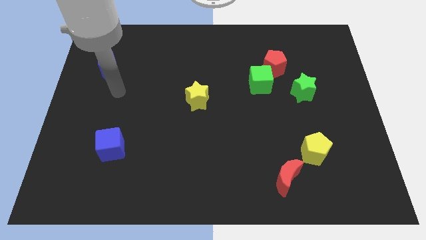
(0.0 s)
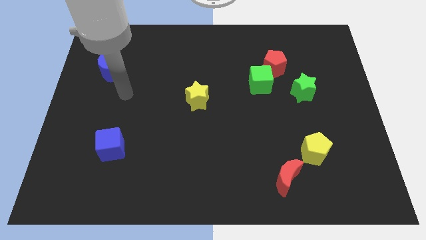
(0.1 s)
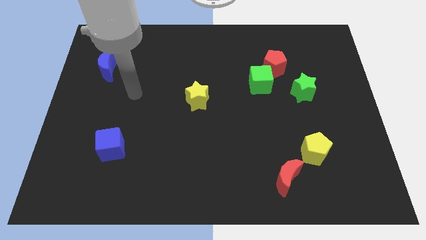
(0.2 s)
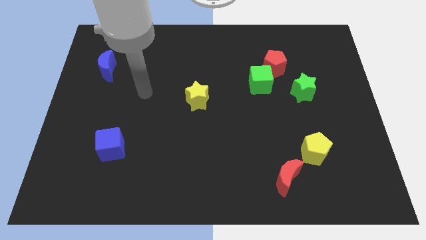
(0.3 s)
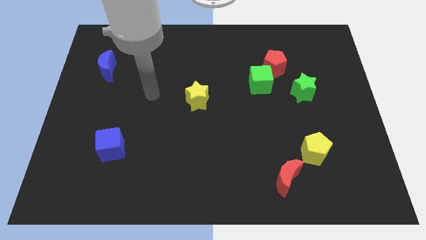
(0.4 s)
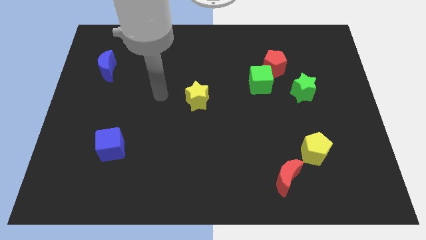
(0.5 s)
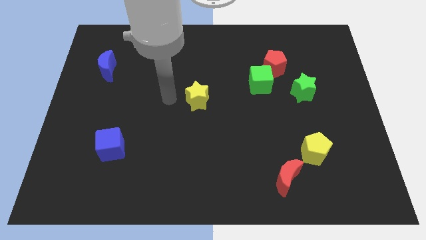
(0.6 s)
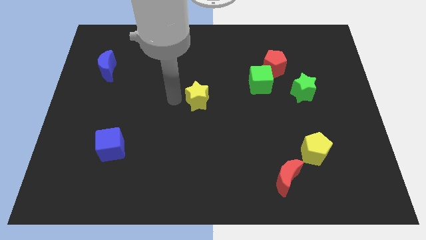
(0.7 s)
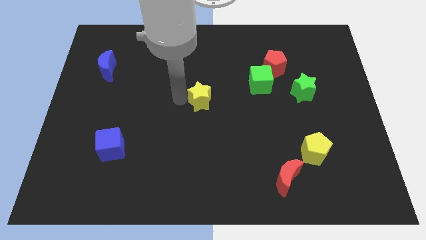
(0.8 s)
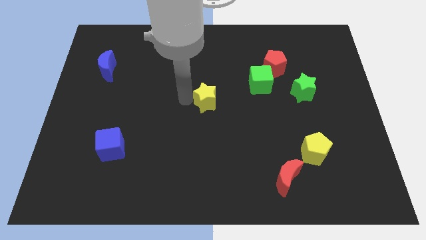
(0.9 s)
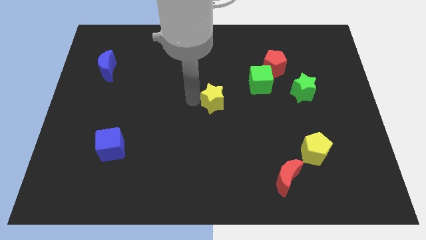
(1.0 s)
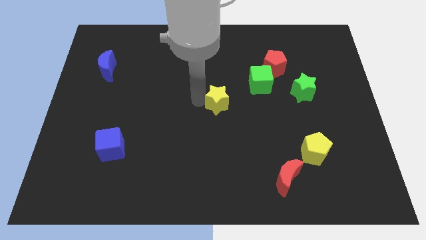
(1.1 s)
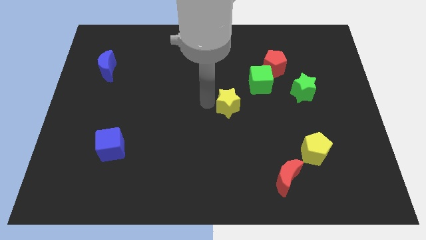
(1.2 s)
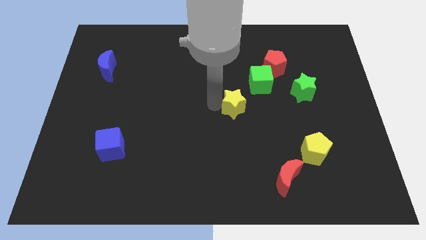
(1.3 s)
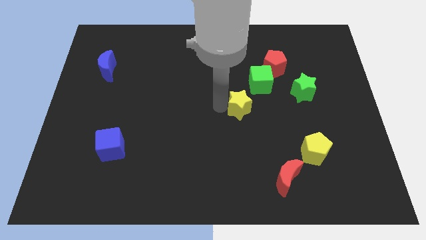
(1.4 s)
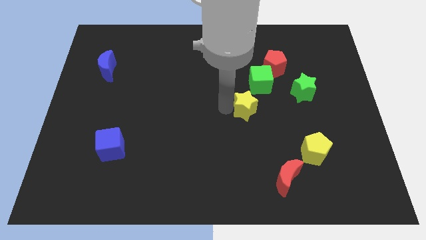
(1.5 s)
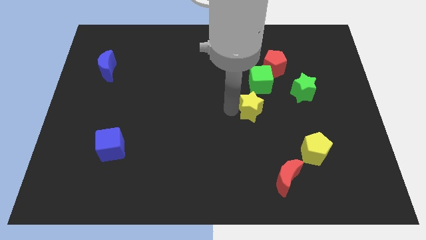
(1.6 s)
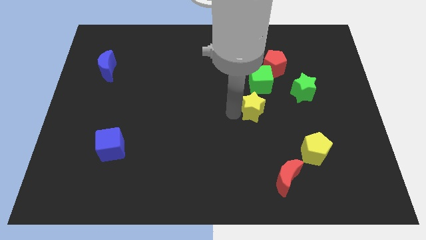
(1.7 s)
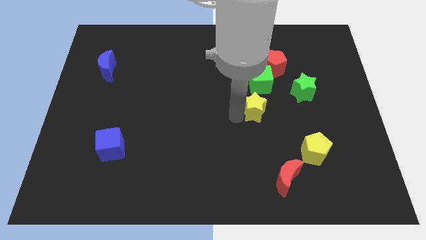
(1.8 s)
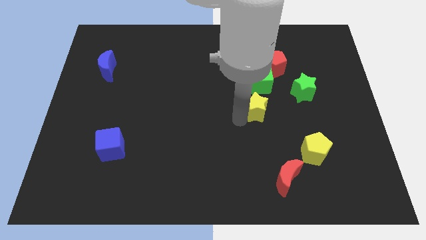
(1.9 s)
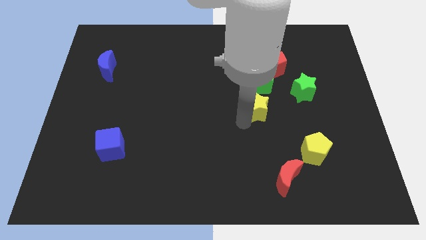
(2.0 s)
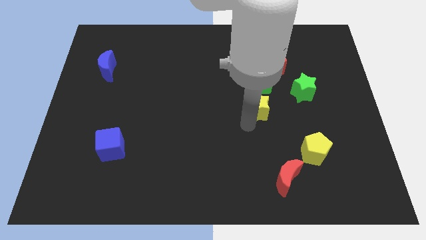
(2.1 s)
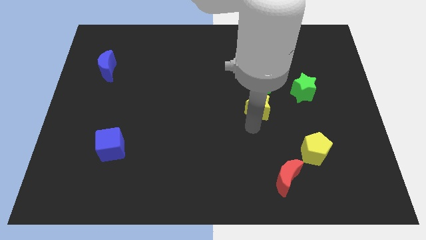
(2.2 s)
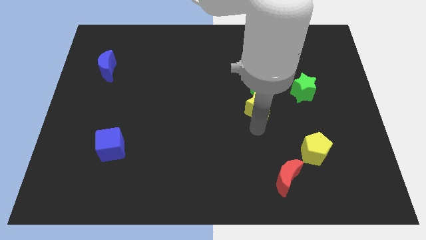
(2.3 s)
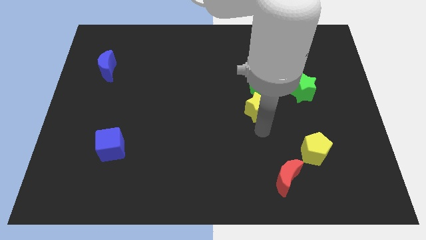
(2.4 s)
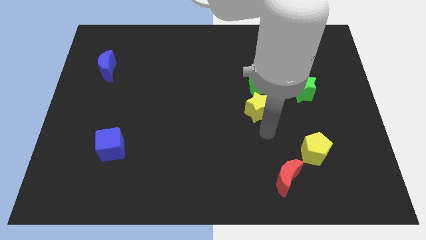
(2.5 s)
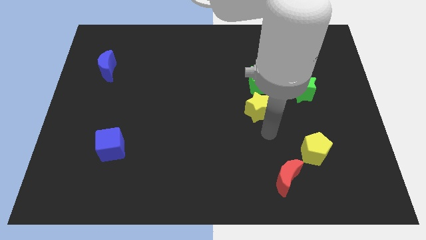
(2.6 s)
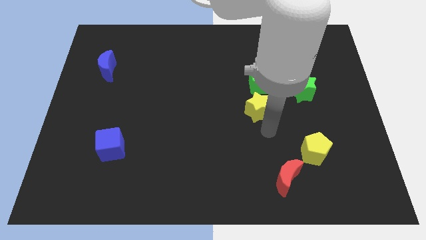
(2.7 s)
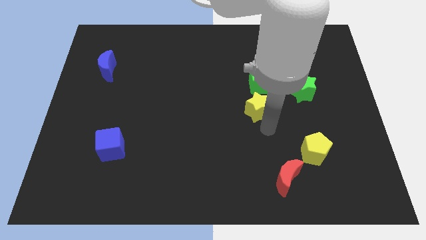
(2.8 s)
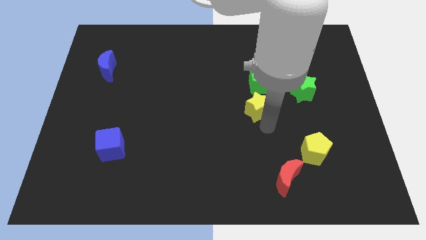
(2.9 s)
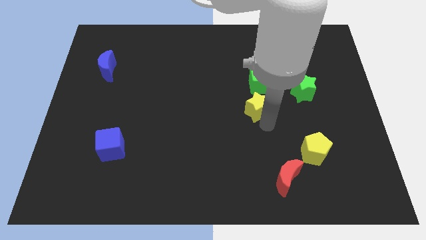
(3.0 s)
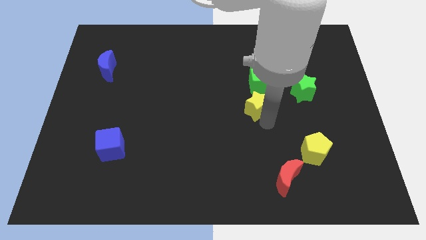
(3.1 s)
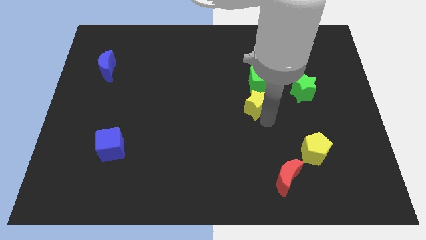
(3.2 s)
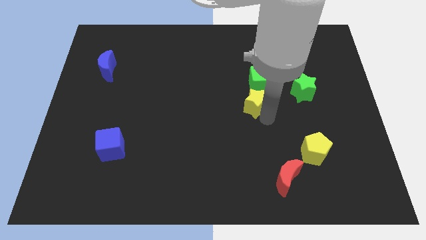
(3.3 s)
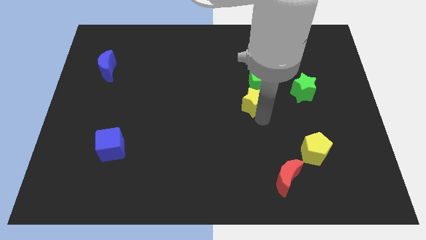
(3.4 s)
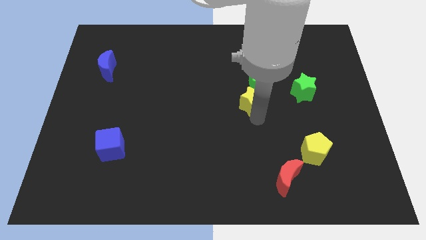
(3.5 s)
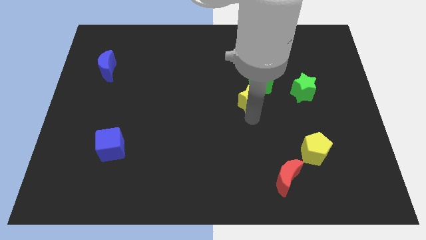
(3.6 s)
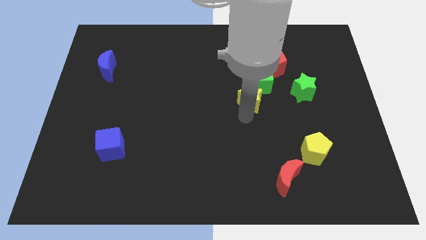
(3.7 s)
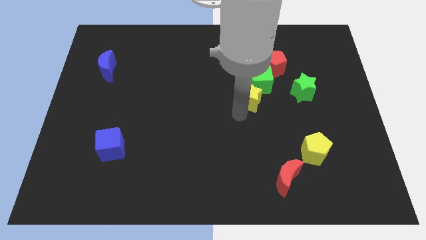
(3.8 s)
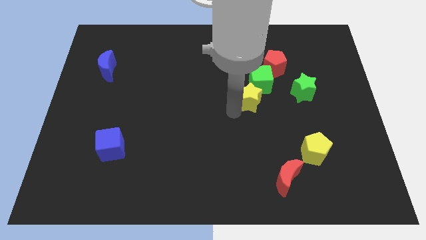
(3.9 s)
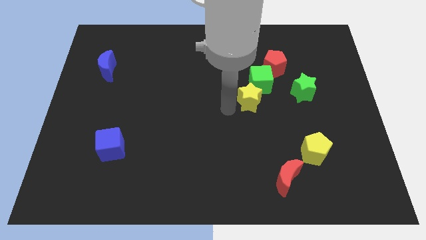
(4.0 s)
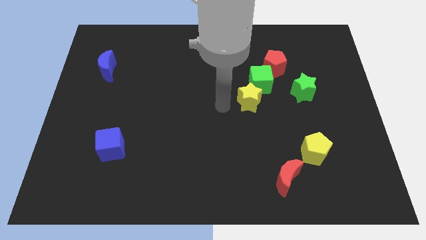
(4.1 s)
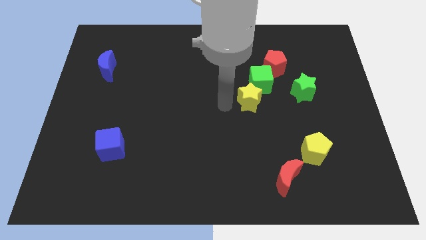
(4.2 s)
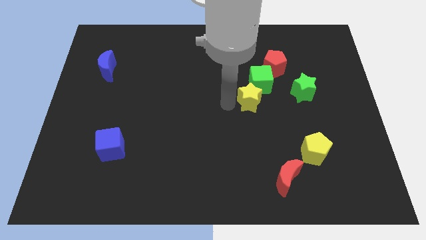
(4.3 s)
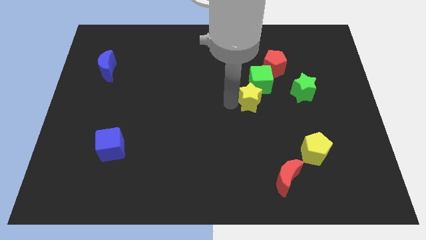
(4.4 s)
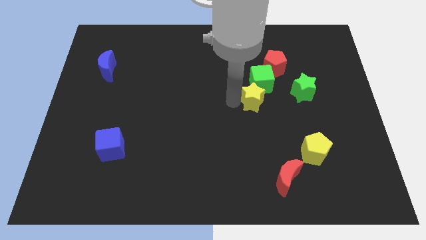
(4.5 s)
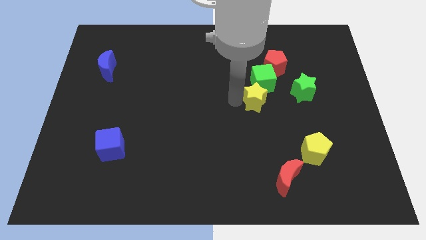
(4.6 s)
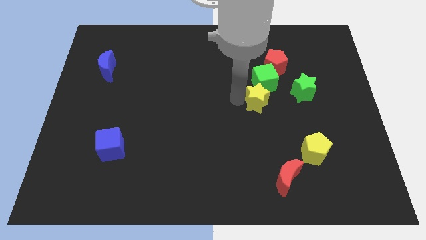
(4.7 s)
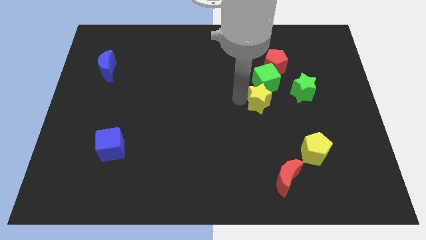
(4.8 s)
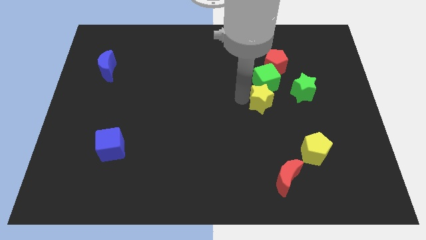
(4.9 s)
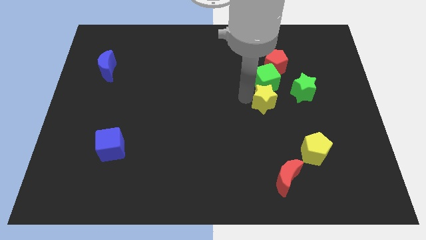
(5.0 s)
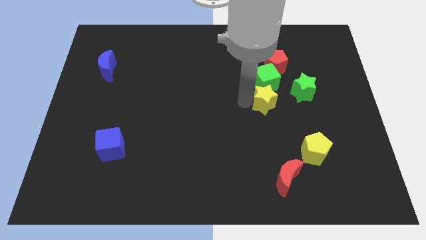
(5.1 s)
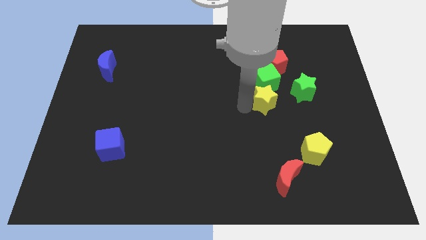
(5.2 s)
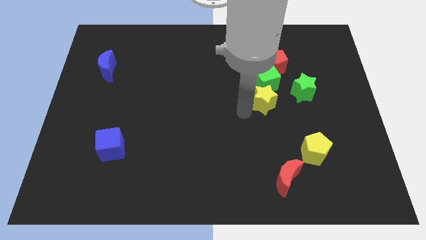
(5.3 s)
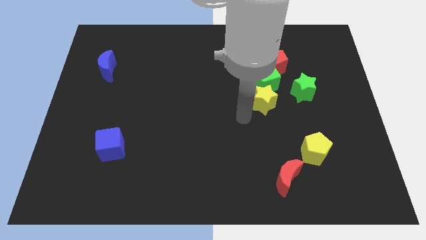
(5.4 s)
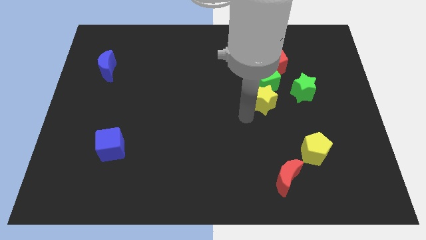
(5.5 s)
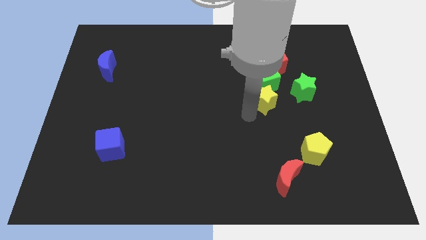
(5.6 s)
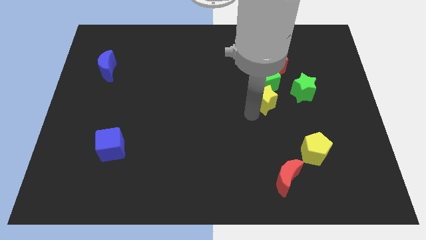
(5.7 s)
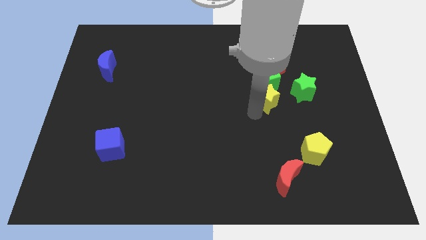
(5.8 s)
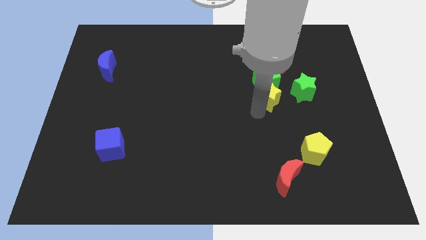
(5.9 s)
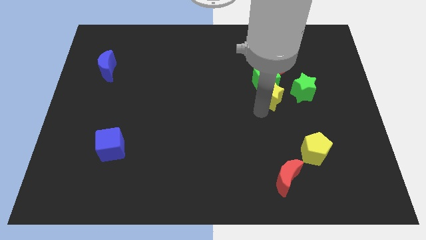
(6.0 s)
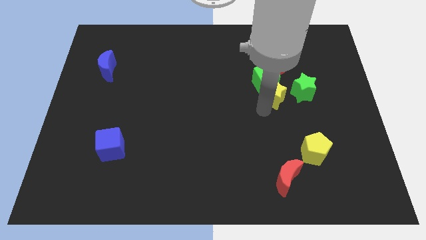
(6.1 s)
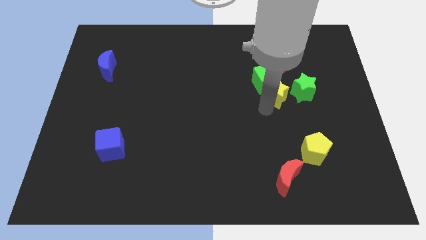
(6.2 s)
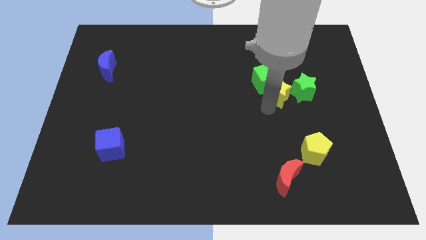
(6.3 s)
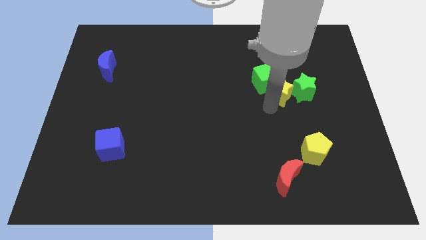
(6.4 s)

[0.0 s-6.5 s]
move the yellow star to the right side of the green cube

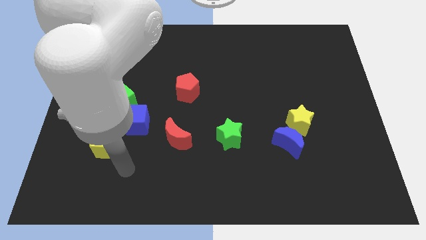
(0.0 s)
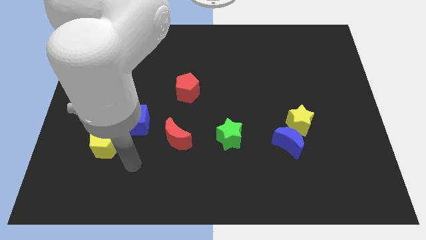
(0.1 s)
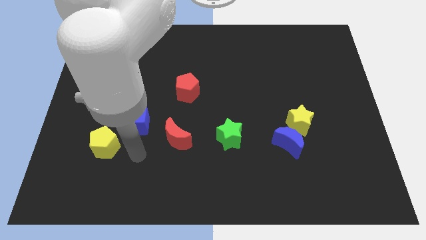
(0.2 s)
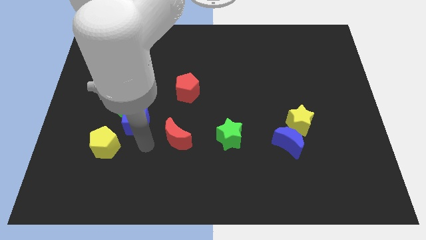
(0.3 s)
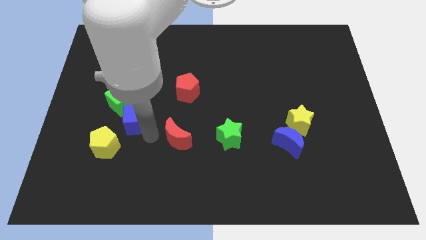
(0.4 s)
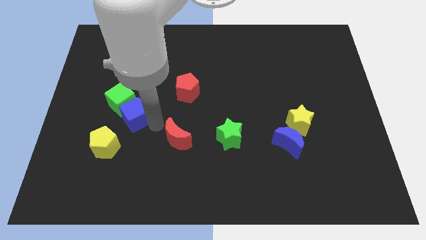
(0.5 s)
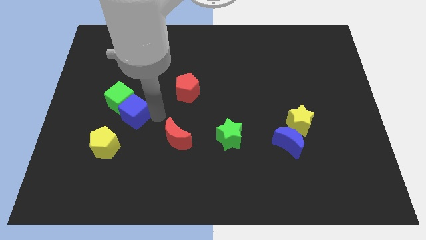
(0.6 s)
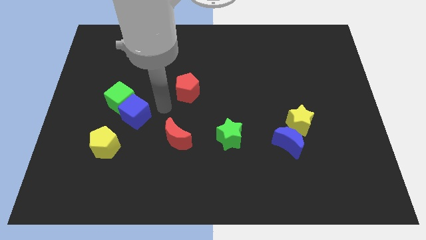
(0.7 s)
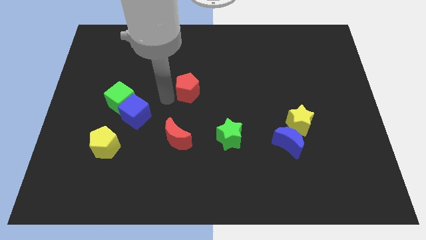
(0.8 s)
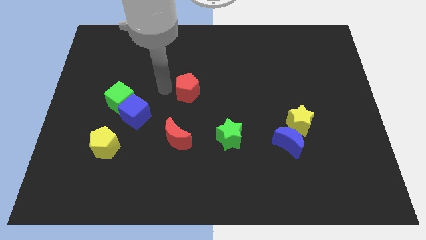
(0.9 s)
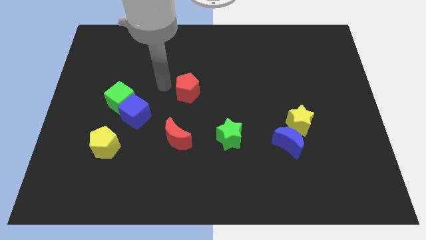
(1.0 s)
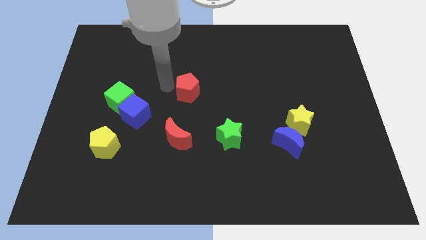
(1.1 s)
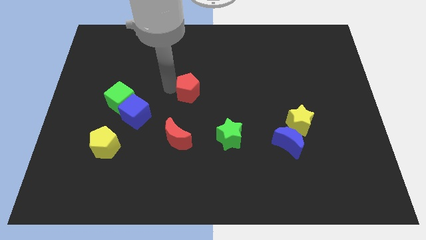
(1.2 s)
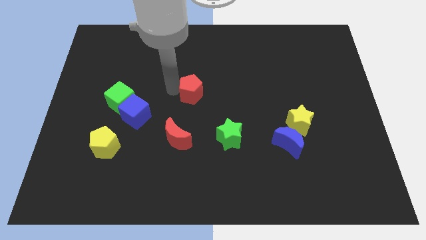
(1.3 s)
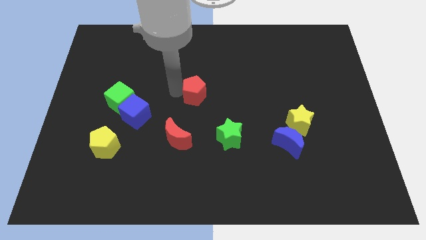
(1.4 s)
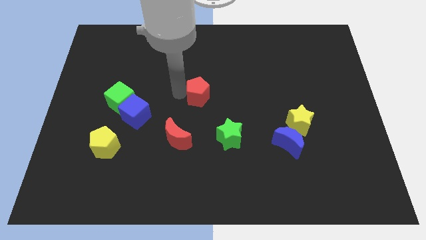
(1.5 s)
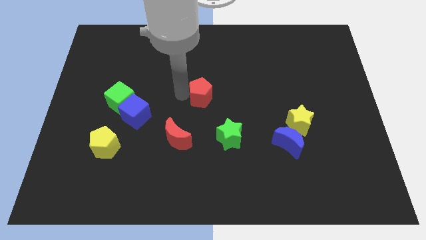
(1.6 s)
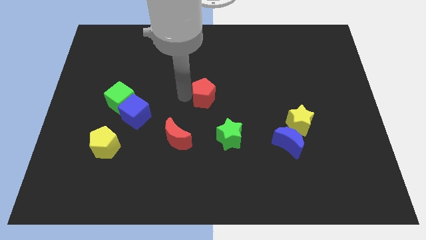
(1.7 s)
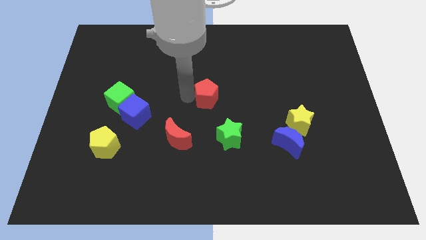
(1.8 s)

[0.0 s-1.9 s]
put the red pentagon to the top side of the green star
